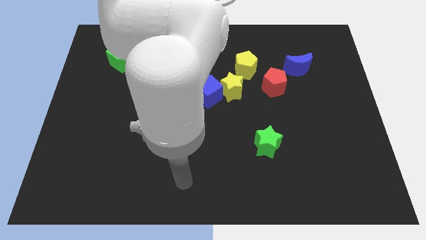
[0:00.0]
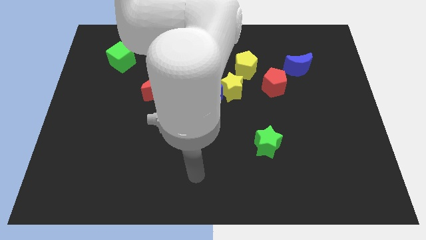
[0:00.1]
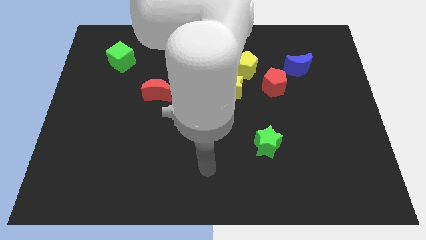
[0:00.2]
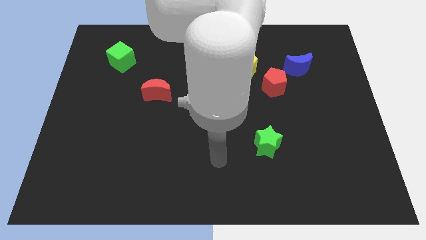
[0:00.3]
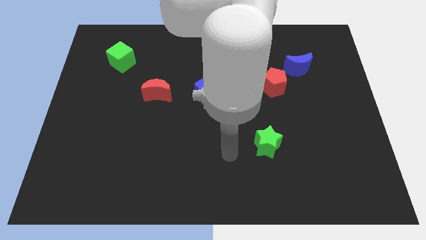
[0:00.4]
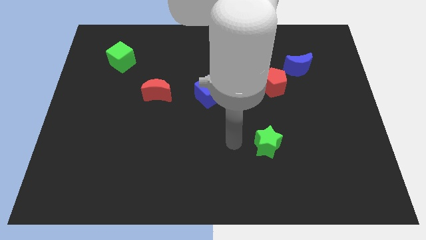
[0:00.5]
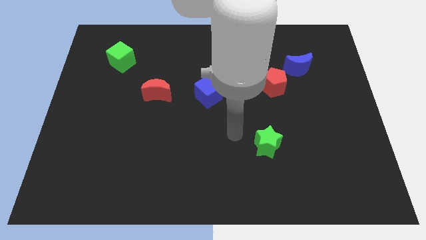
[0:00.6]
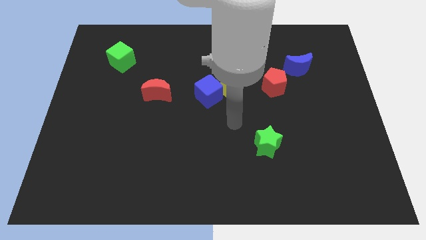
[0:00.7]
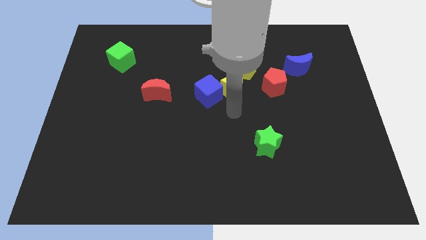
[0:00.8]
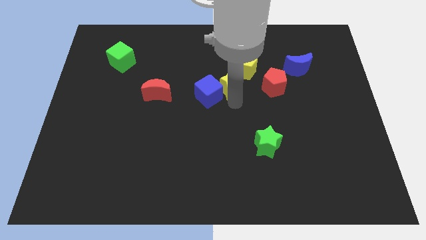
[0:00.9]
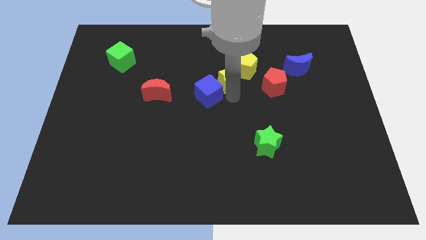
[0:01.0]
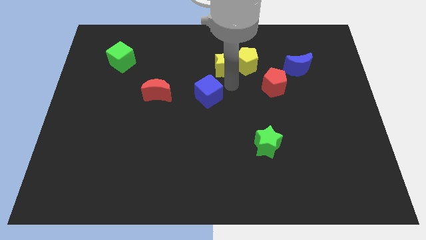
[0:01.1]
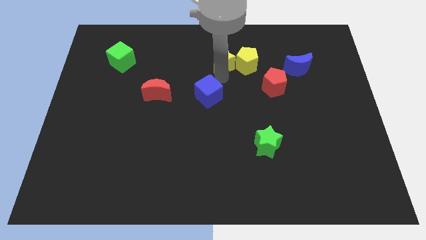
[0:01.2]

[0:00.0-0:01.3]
move the blue cube away from the yellow star

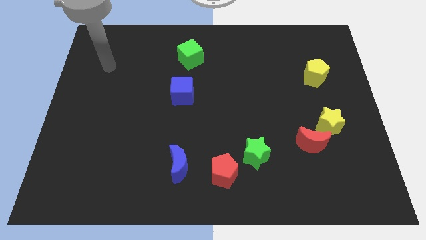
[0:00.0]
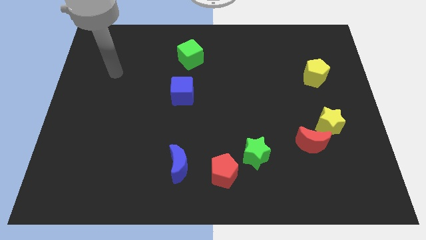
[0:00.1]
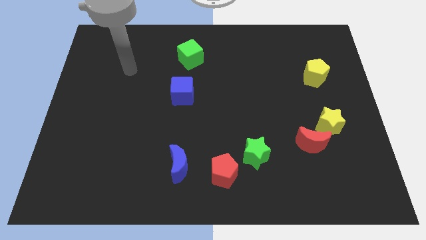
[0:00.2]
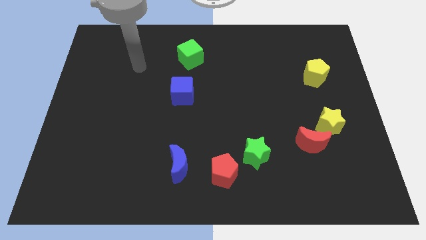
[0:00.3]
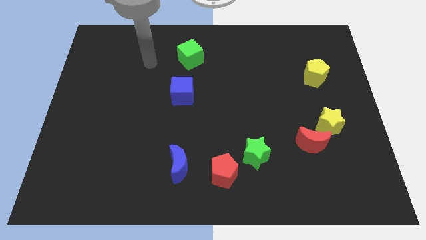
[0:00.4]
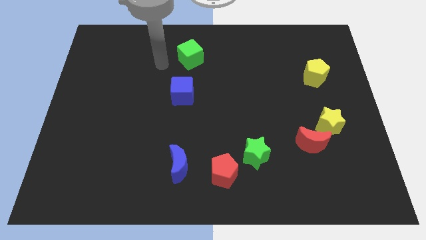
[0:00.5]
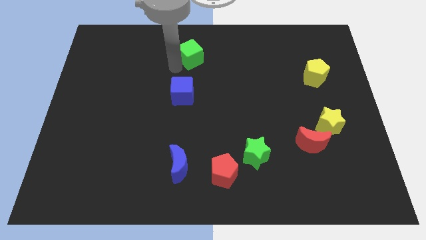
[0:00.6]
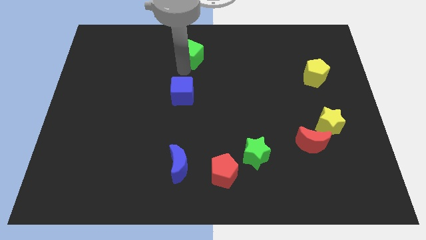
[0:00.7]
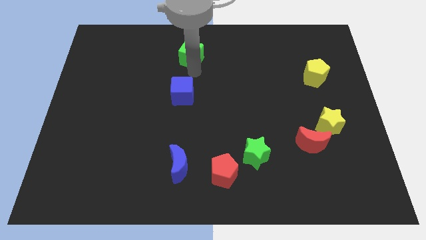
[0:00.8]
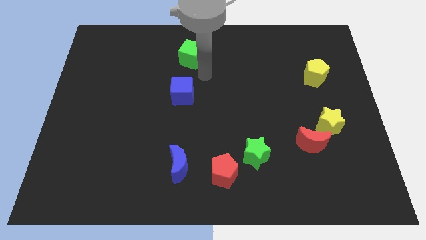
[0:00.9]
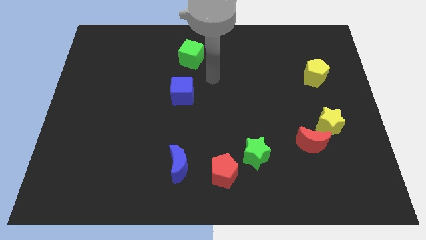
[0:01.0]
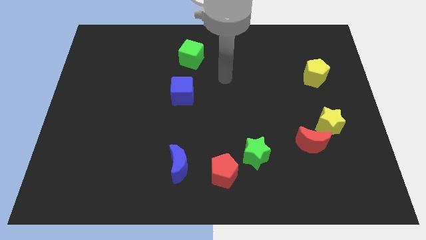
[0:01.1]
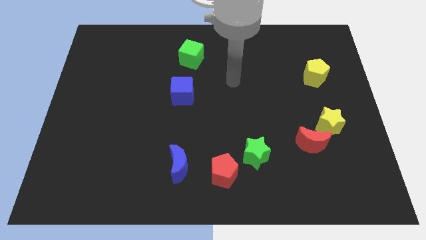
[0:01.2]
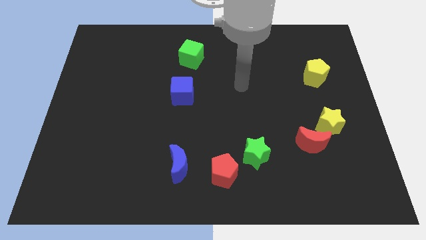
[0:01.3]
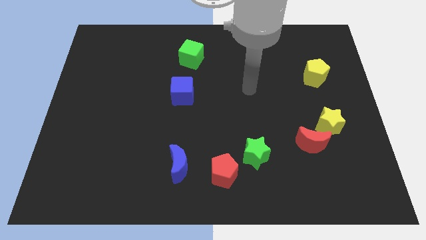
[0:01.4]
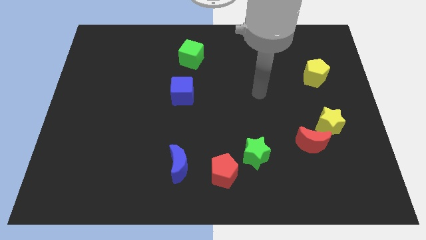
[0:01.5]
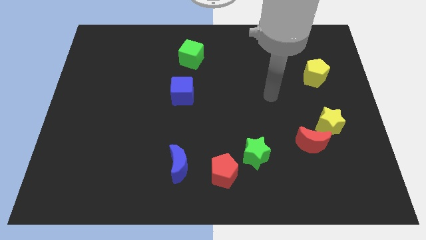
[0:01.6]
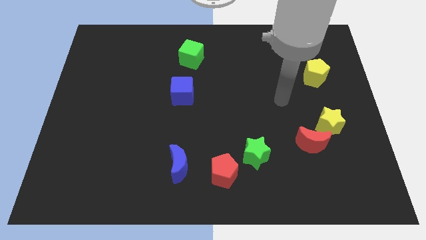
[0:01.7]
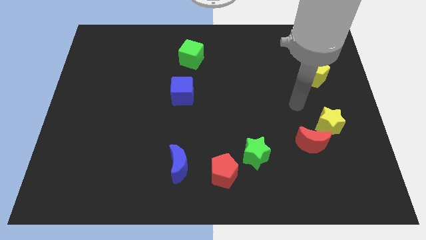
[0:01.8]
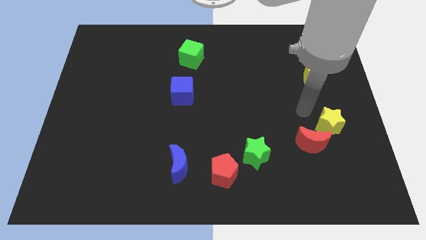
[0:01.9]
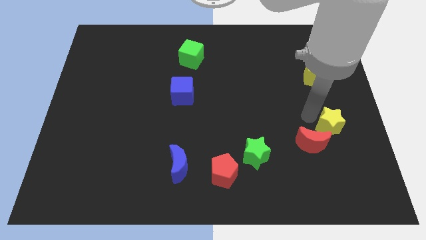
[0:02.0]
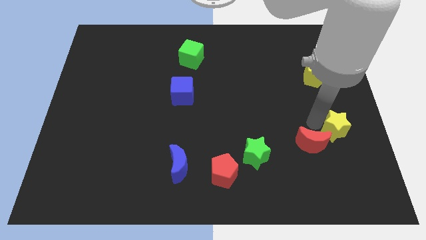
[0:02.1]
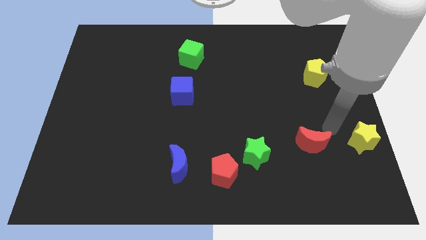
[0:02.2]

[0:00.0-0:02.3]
move the red moon away from the yellow star

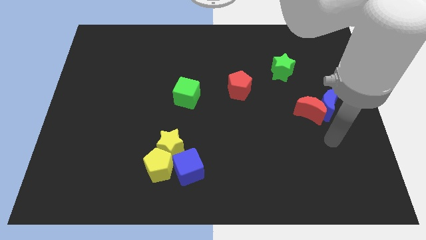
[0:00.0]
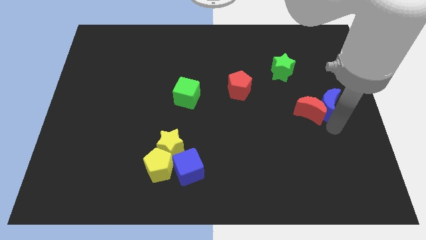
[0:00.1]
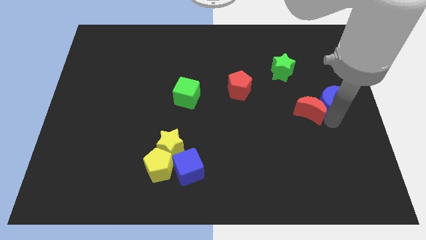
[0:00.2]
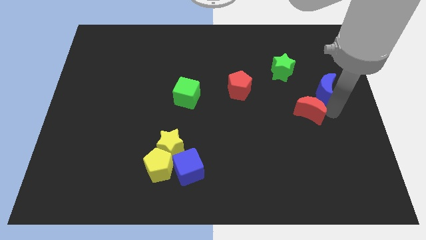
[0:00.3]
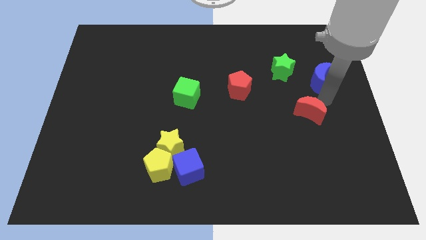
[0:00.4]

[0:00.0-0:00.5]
pull the red moon apart from the blue moon

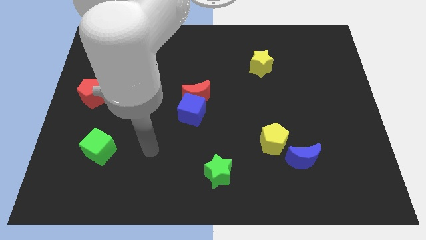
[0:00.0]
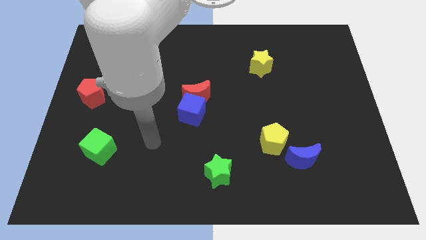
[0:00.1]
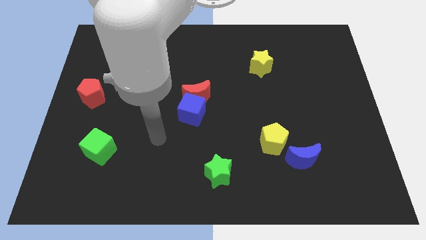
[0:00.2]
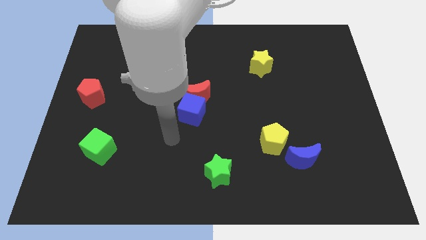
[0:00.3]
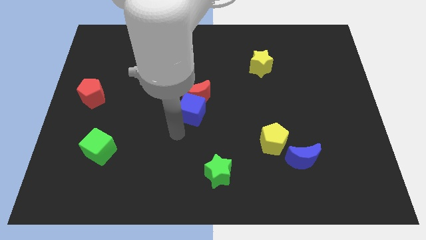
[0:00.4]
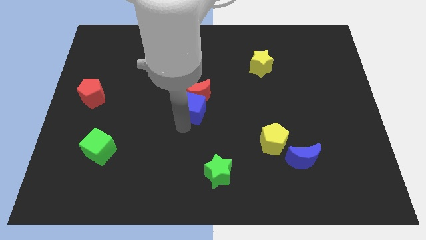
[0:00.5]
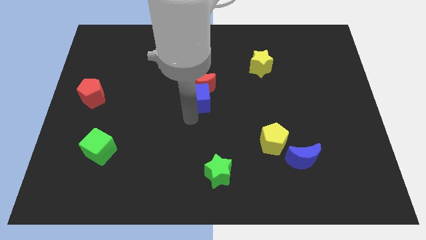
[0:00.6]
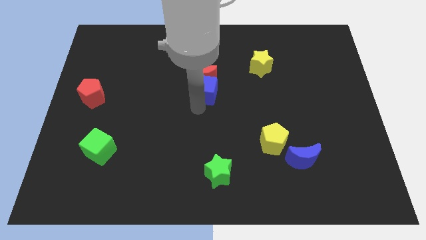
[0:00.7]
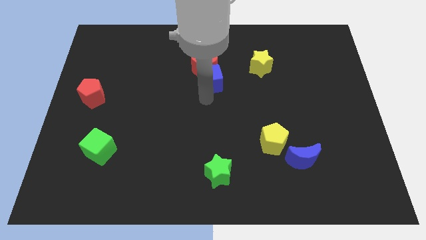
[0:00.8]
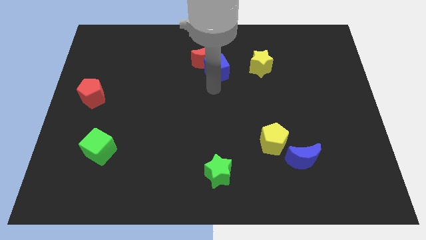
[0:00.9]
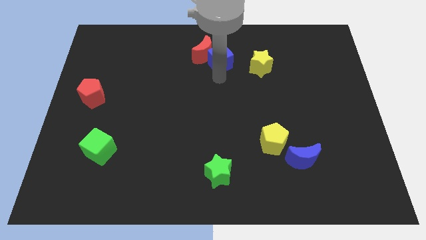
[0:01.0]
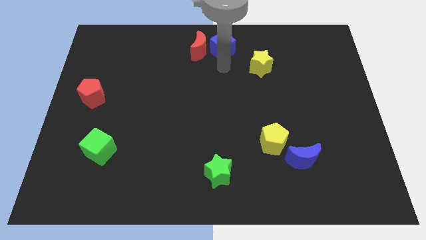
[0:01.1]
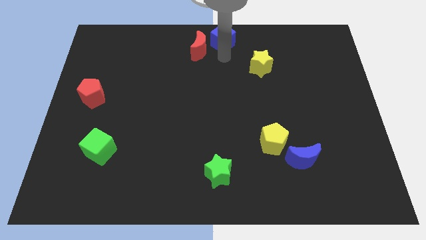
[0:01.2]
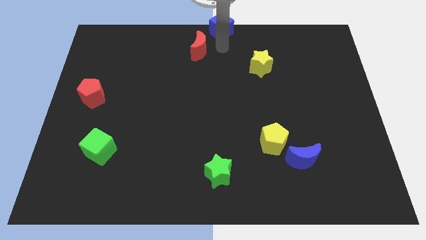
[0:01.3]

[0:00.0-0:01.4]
move the red moon away from the blue cube

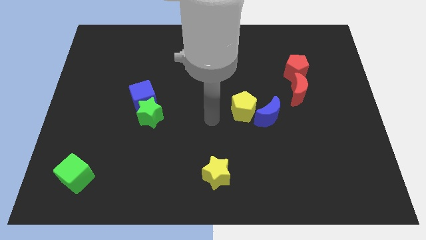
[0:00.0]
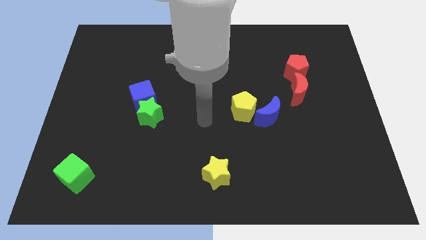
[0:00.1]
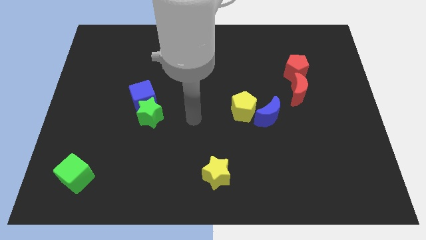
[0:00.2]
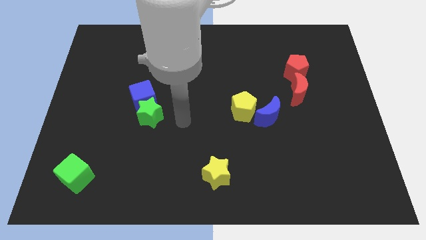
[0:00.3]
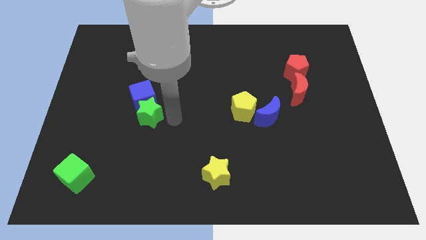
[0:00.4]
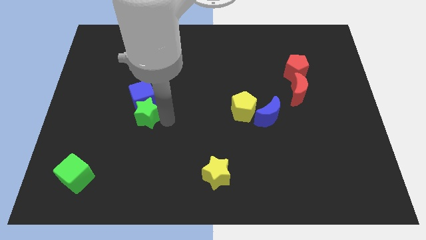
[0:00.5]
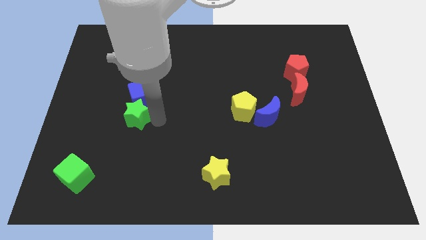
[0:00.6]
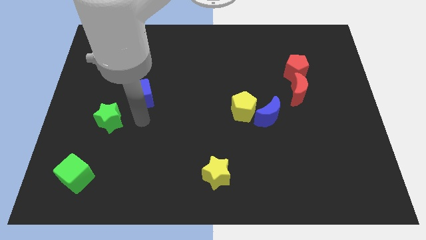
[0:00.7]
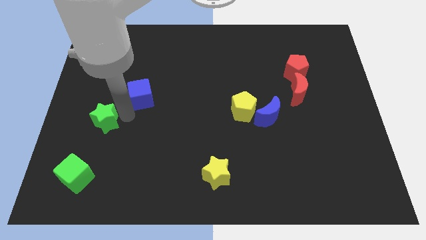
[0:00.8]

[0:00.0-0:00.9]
pull the blue cube apart from the green star

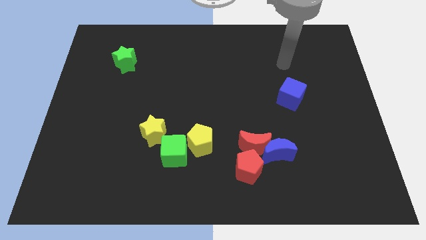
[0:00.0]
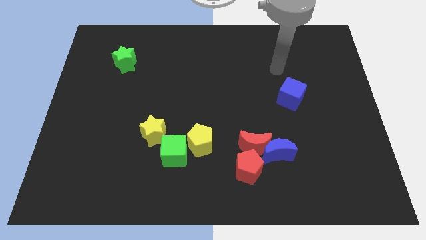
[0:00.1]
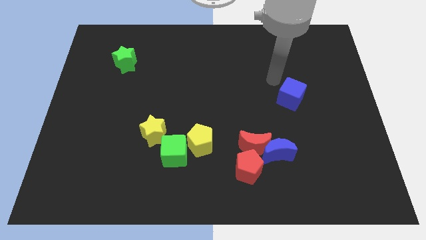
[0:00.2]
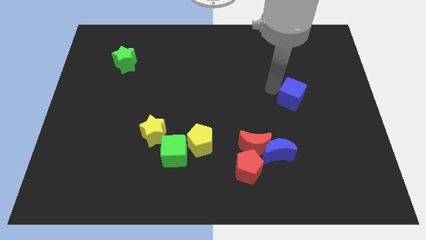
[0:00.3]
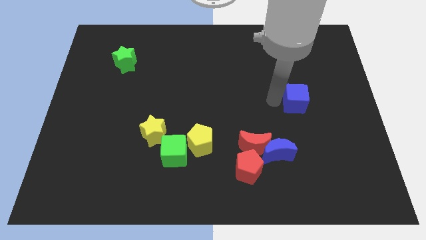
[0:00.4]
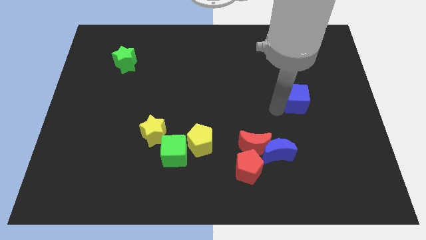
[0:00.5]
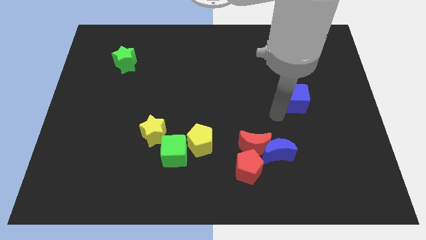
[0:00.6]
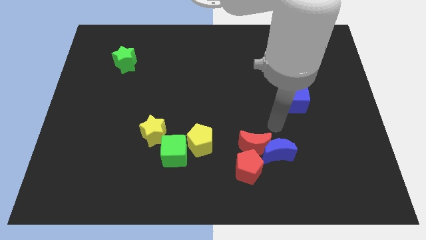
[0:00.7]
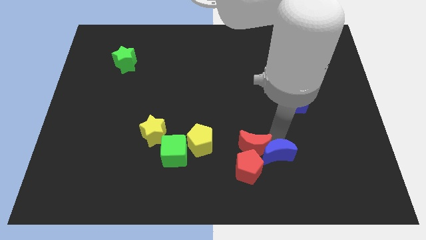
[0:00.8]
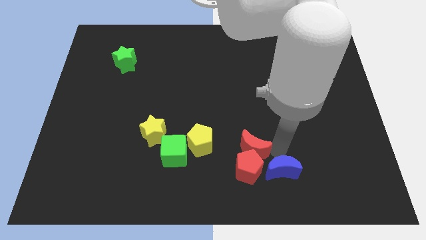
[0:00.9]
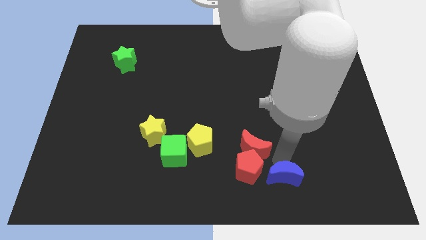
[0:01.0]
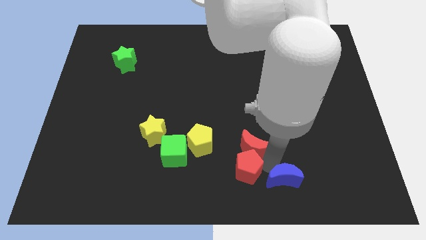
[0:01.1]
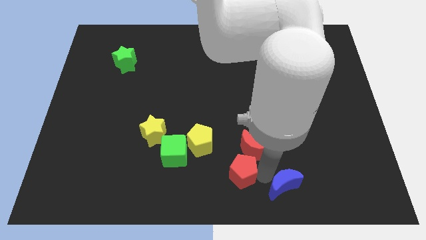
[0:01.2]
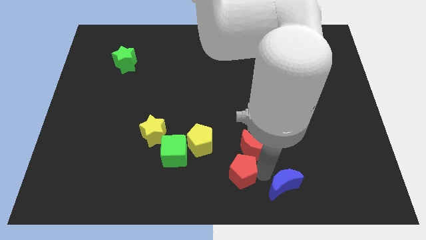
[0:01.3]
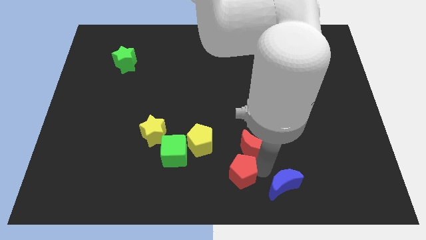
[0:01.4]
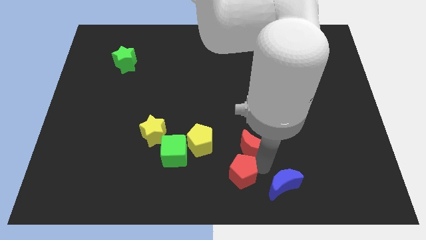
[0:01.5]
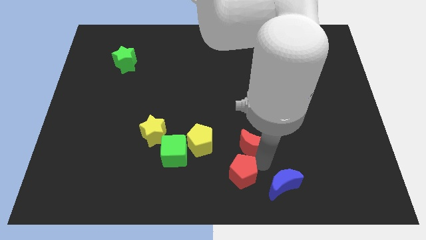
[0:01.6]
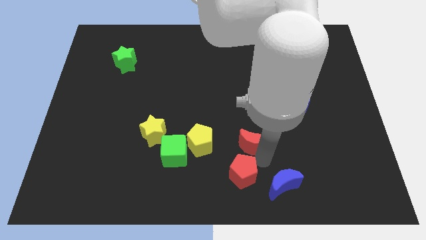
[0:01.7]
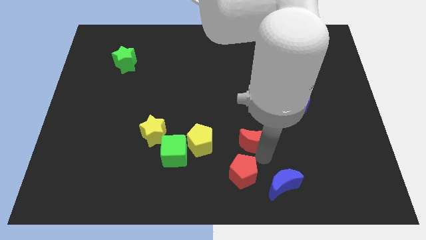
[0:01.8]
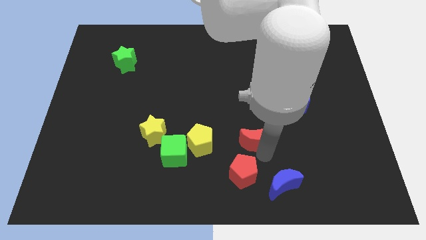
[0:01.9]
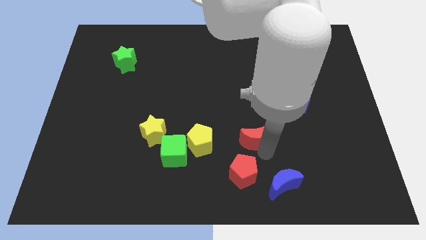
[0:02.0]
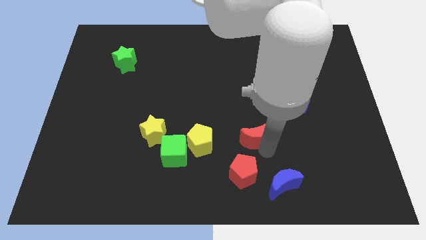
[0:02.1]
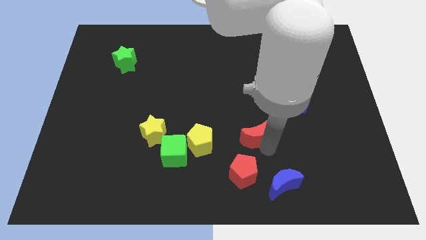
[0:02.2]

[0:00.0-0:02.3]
move the red moon away from the blue moon and red pentagon

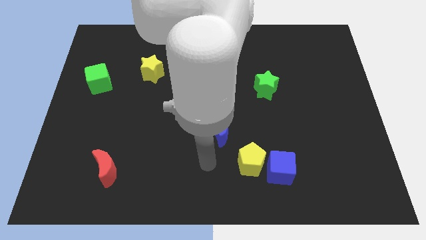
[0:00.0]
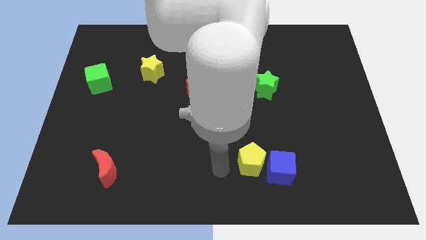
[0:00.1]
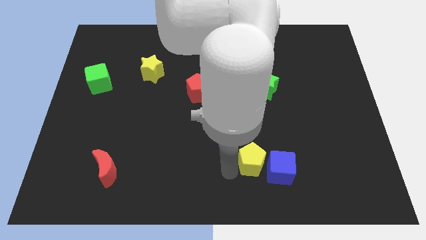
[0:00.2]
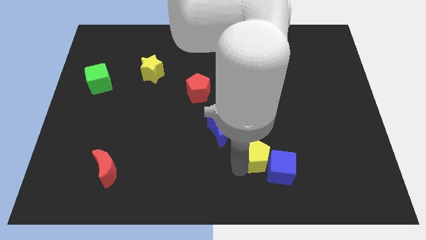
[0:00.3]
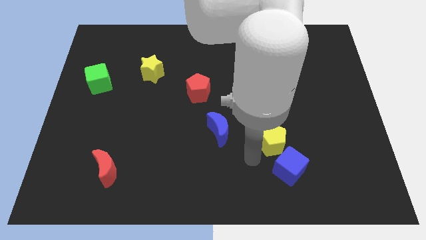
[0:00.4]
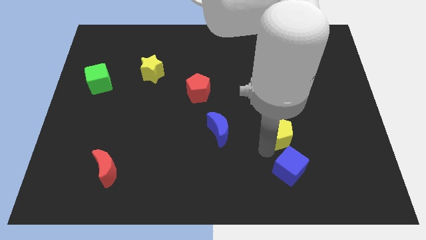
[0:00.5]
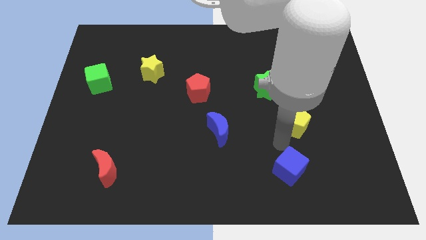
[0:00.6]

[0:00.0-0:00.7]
pull the blue cube apart from the yellow pentagon
